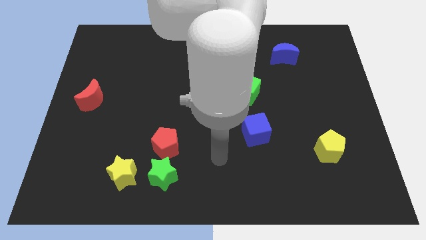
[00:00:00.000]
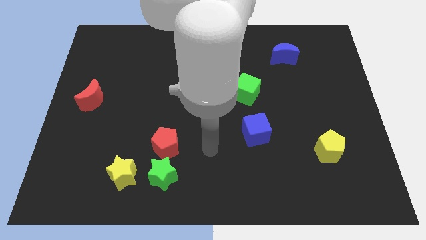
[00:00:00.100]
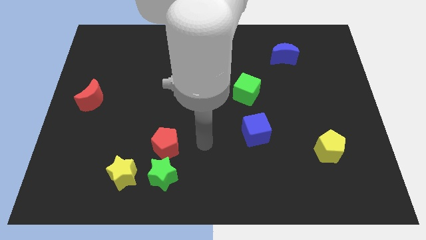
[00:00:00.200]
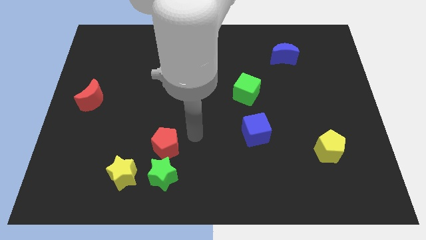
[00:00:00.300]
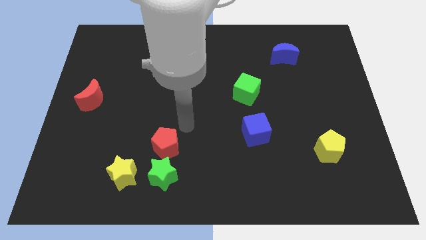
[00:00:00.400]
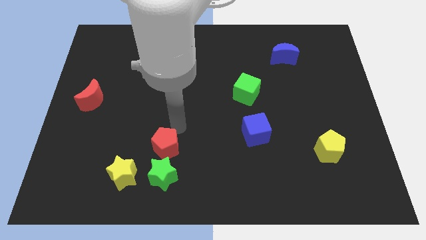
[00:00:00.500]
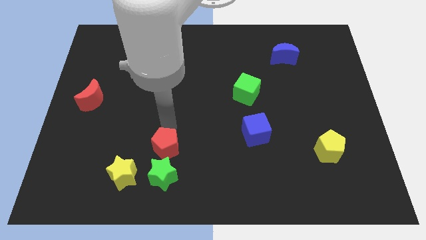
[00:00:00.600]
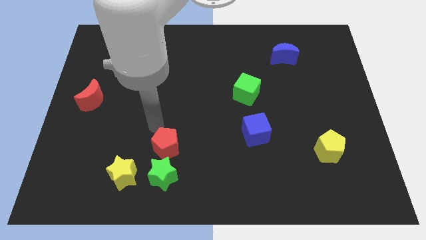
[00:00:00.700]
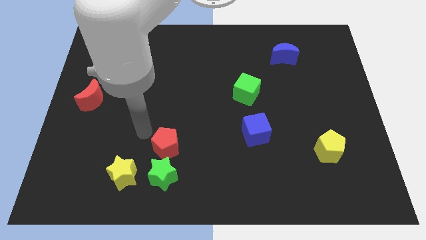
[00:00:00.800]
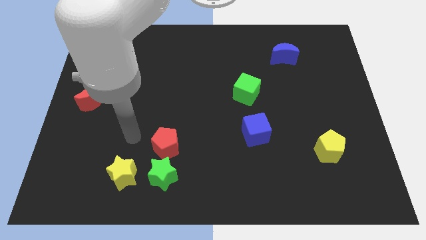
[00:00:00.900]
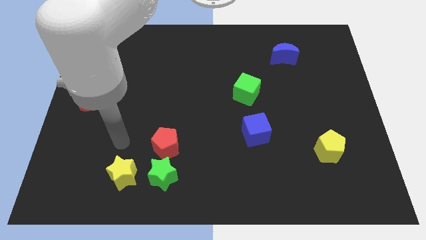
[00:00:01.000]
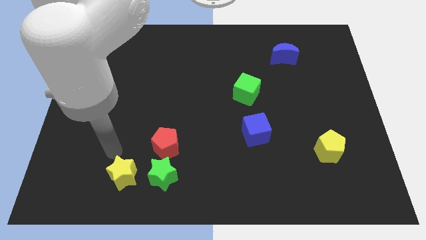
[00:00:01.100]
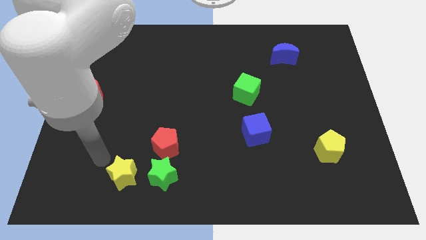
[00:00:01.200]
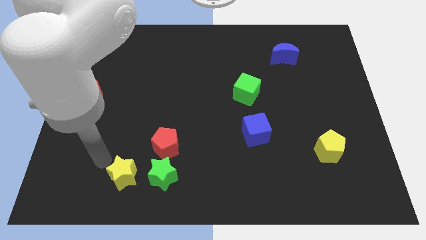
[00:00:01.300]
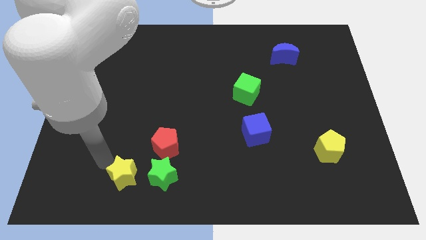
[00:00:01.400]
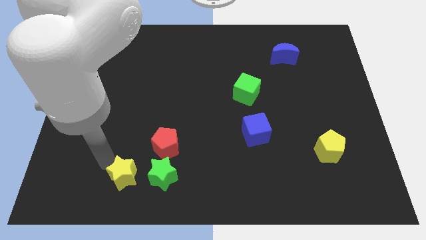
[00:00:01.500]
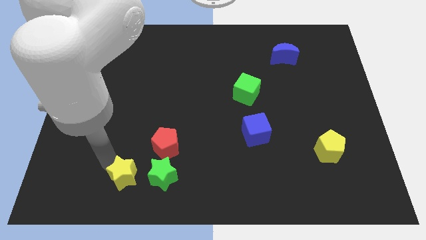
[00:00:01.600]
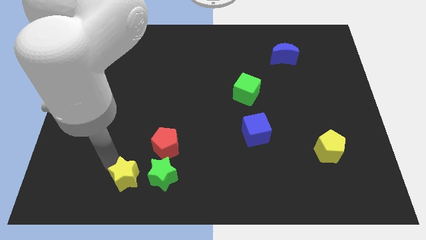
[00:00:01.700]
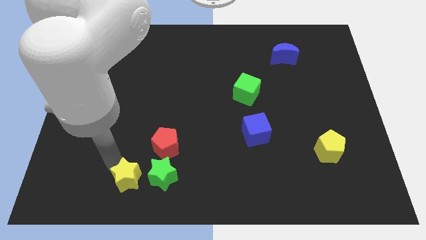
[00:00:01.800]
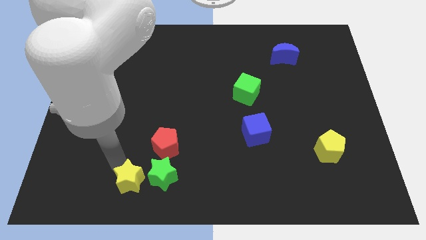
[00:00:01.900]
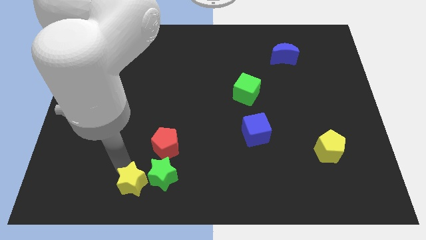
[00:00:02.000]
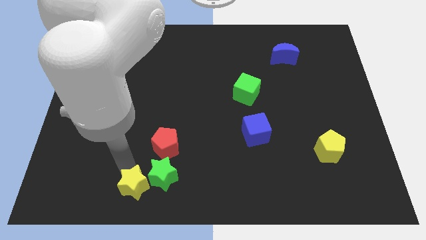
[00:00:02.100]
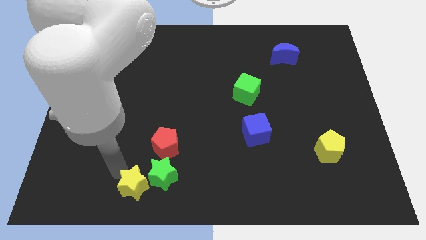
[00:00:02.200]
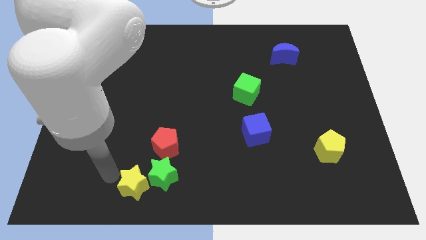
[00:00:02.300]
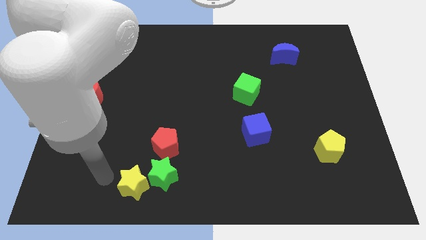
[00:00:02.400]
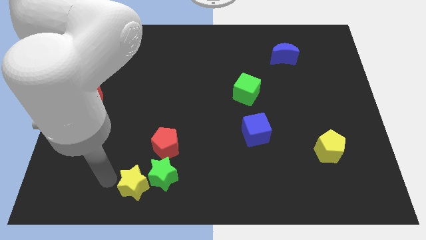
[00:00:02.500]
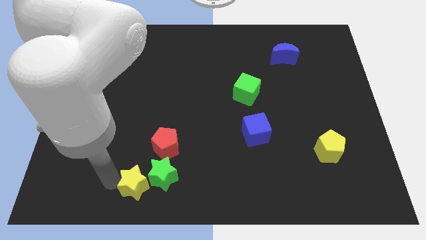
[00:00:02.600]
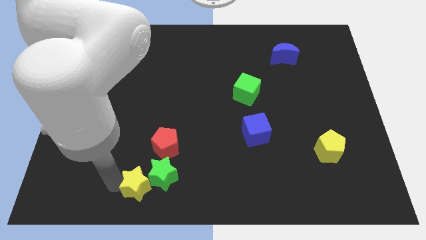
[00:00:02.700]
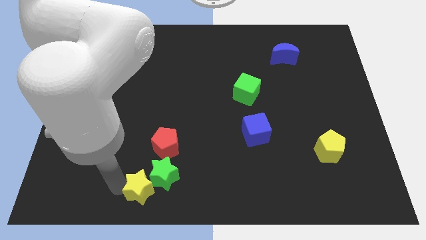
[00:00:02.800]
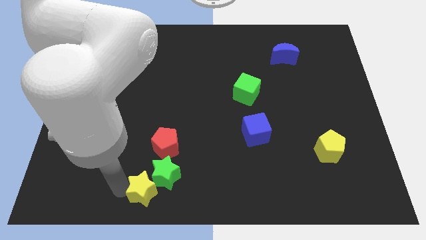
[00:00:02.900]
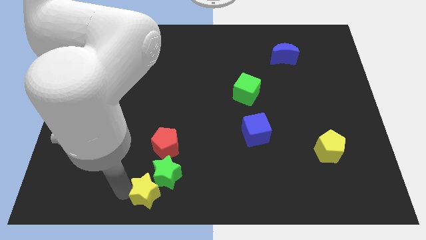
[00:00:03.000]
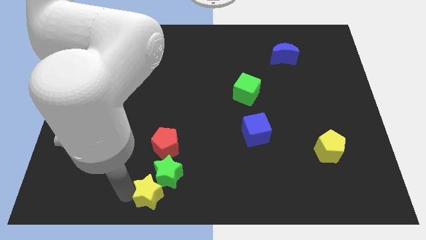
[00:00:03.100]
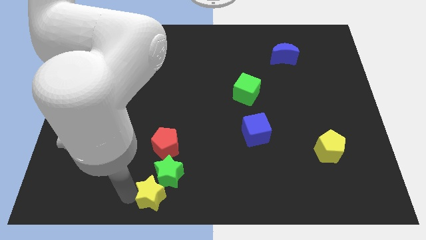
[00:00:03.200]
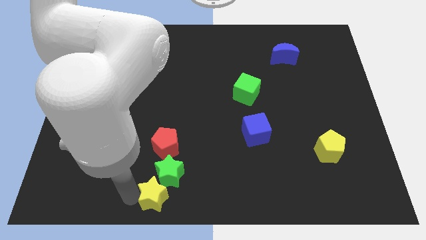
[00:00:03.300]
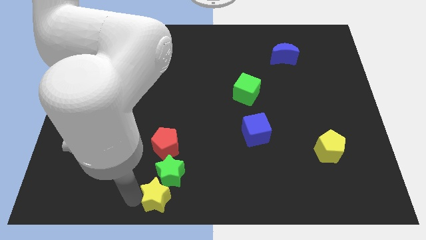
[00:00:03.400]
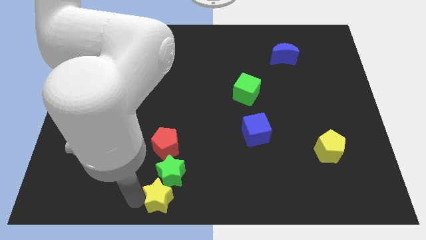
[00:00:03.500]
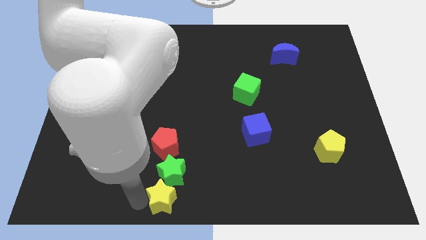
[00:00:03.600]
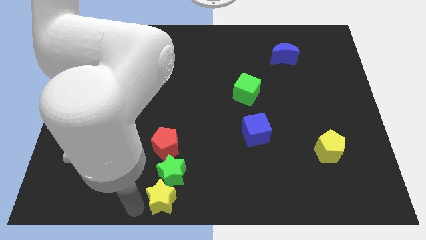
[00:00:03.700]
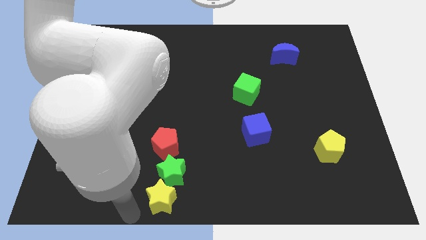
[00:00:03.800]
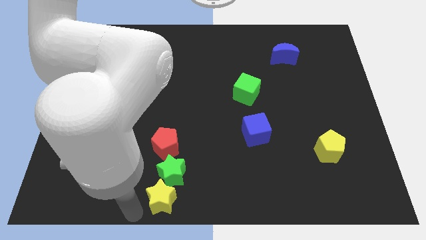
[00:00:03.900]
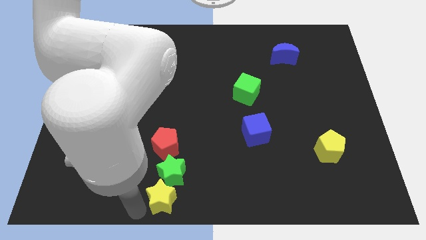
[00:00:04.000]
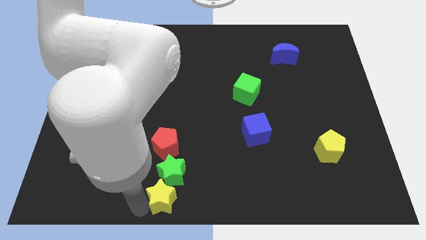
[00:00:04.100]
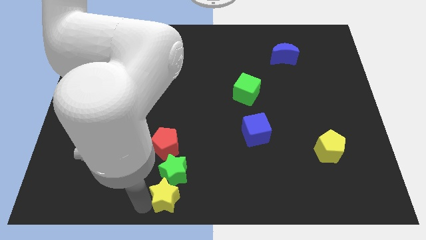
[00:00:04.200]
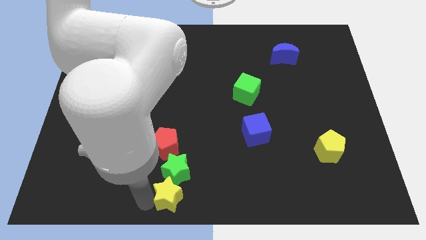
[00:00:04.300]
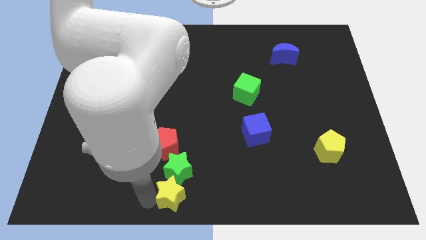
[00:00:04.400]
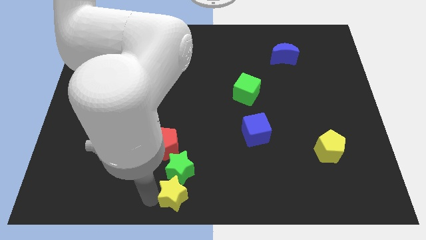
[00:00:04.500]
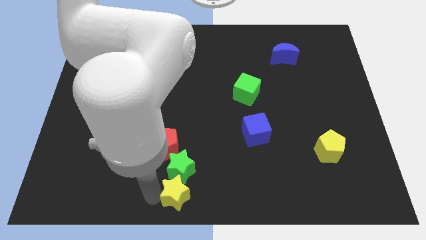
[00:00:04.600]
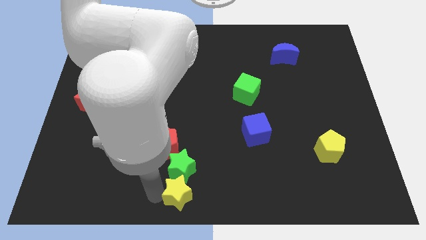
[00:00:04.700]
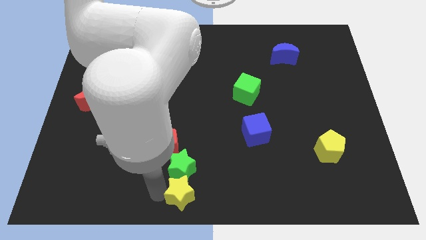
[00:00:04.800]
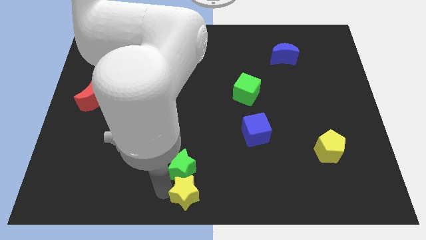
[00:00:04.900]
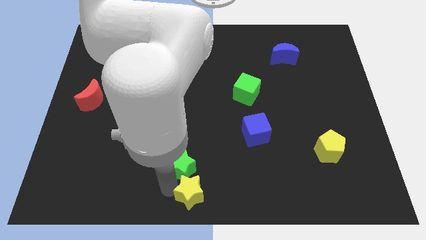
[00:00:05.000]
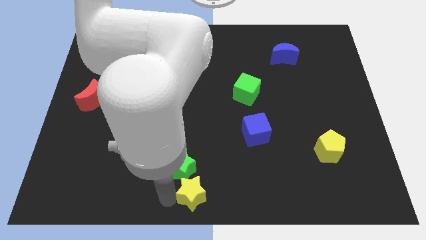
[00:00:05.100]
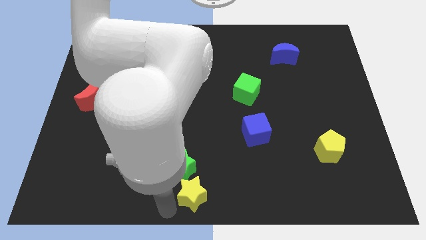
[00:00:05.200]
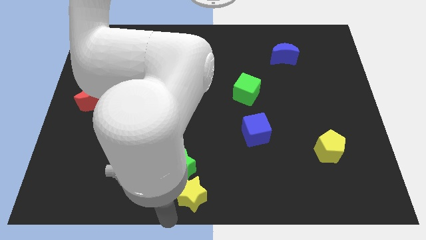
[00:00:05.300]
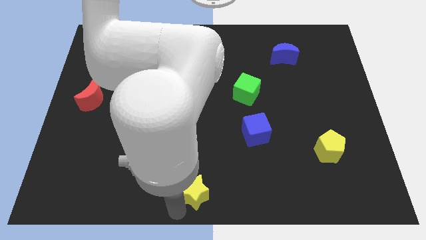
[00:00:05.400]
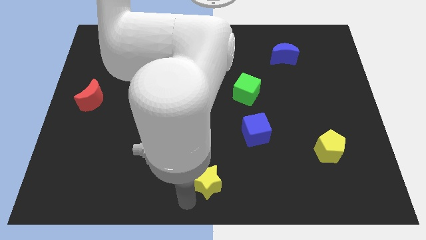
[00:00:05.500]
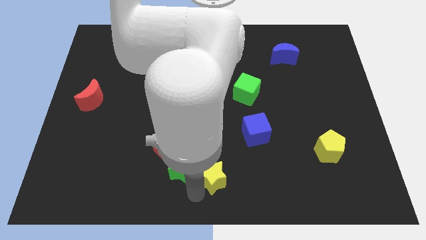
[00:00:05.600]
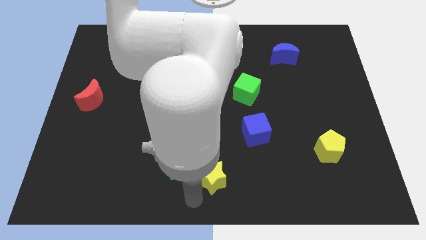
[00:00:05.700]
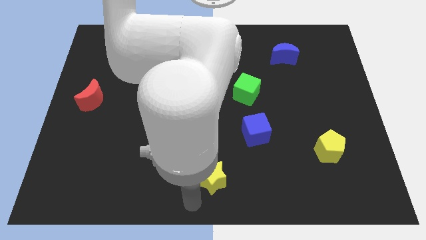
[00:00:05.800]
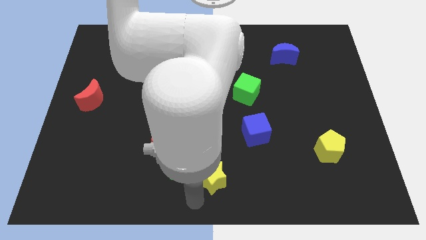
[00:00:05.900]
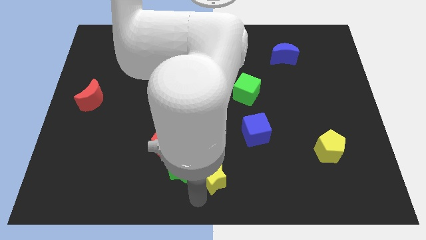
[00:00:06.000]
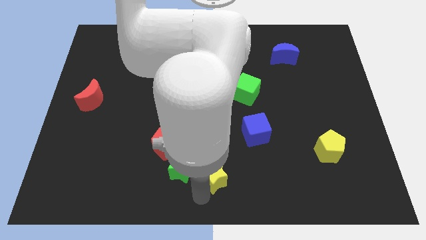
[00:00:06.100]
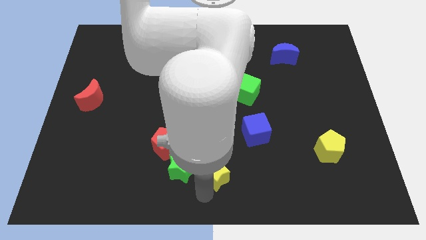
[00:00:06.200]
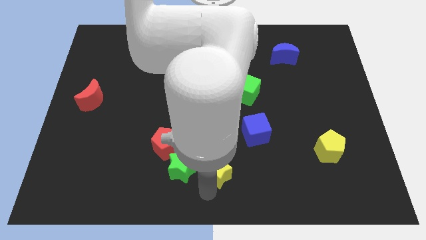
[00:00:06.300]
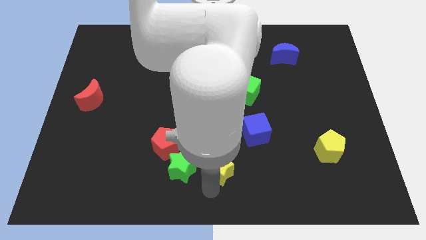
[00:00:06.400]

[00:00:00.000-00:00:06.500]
move the yellow star to the bottom left side of the blue cube

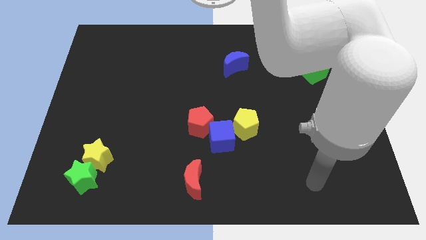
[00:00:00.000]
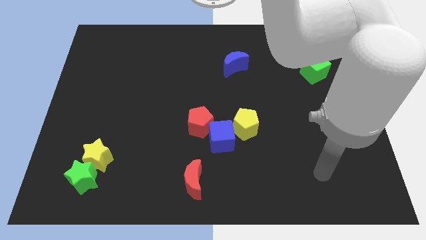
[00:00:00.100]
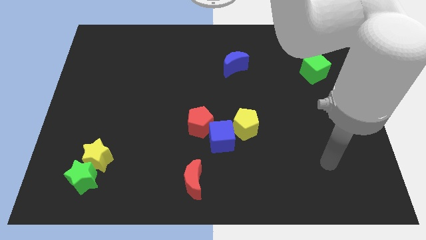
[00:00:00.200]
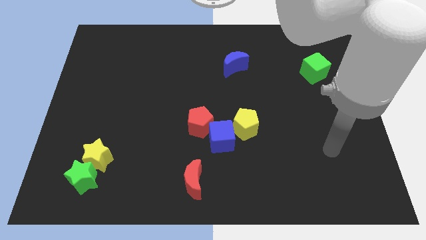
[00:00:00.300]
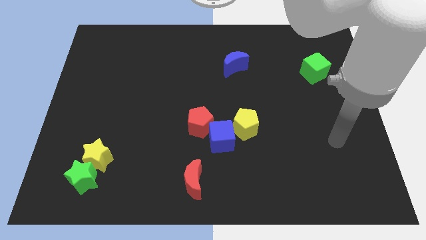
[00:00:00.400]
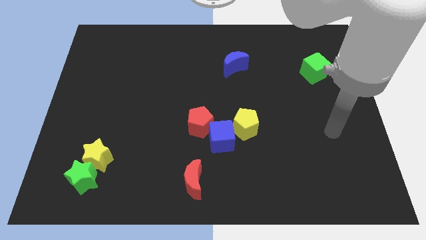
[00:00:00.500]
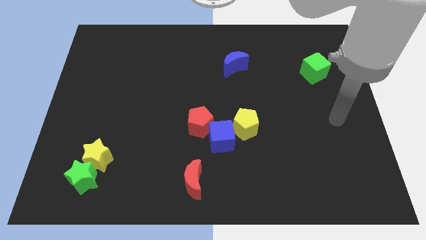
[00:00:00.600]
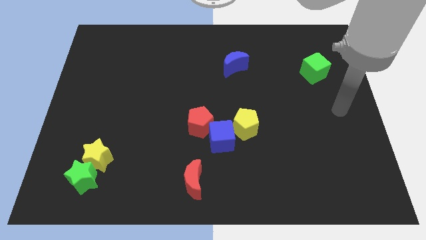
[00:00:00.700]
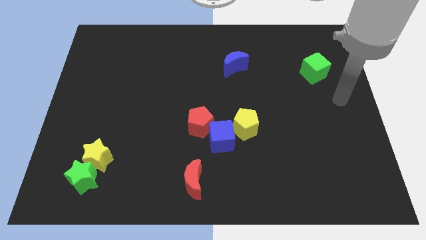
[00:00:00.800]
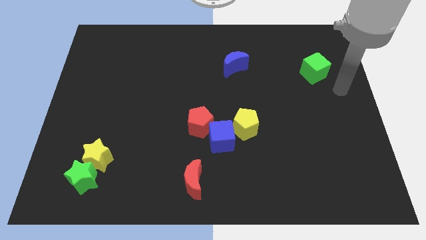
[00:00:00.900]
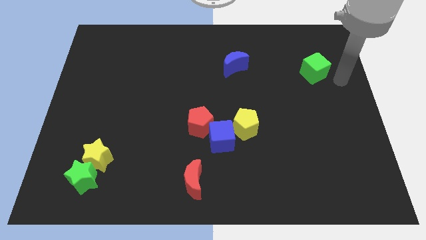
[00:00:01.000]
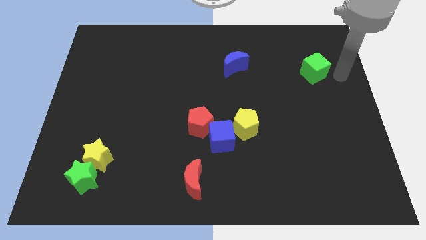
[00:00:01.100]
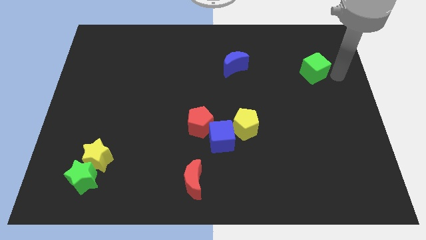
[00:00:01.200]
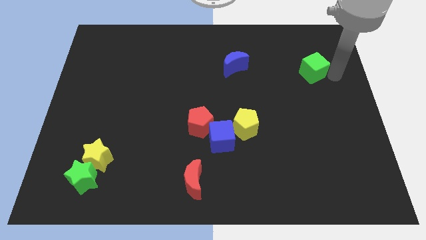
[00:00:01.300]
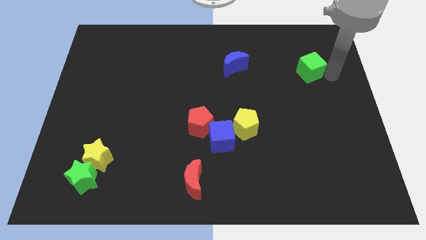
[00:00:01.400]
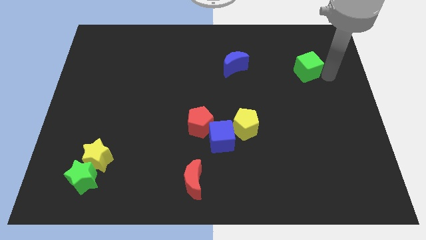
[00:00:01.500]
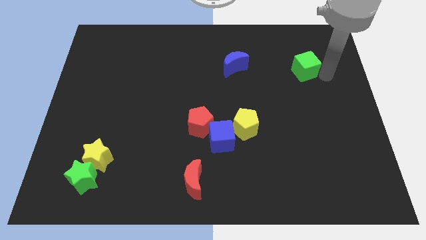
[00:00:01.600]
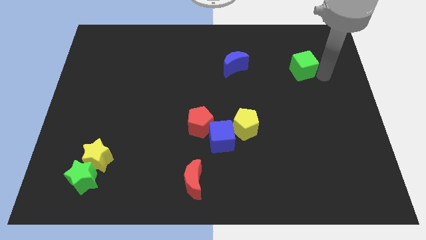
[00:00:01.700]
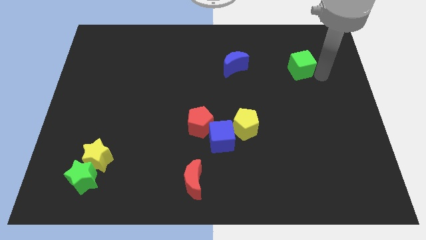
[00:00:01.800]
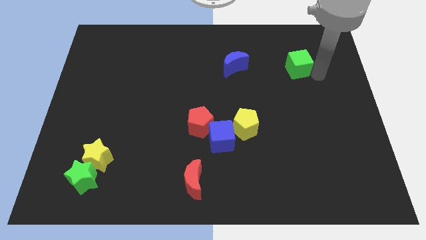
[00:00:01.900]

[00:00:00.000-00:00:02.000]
move the green cube to the right side of the blue moon
